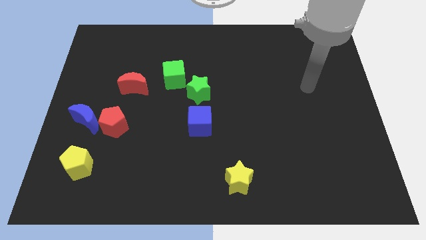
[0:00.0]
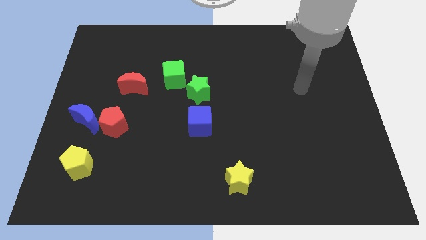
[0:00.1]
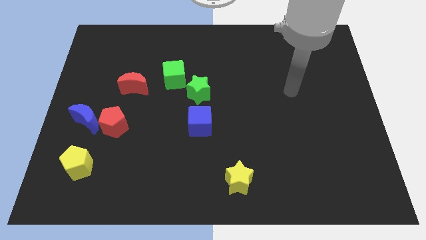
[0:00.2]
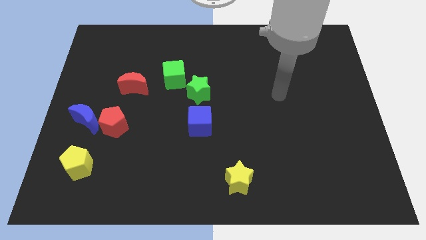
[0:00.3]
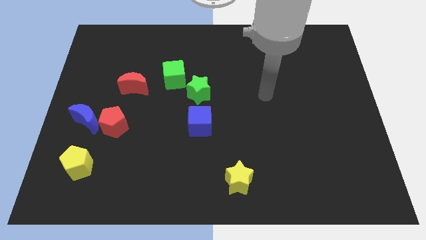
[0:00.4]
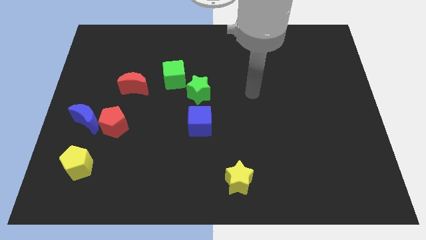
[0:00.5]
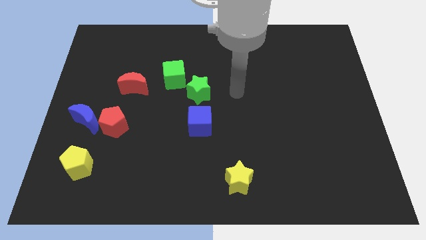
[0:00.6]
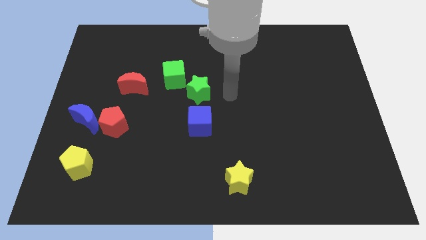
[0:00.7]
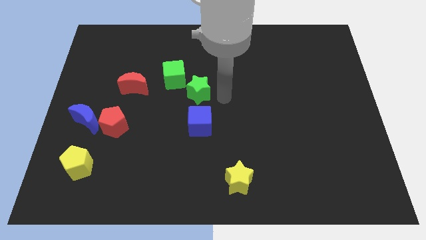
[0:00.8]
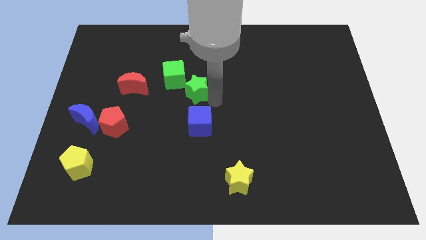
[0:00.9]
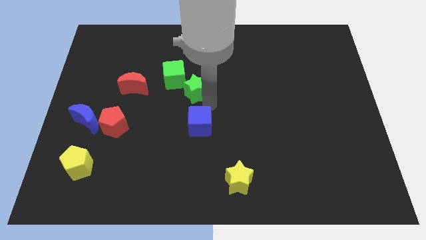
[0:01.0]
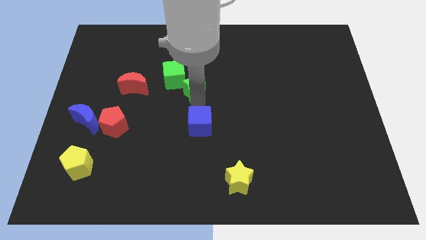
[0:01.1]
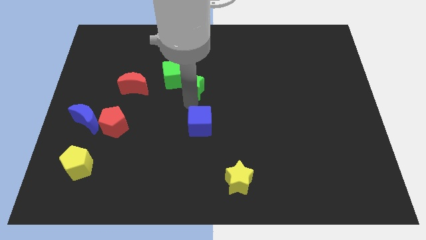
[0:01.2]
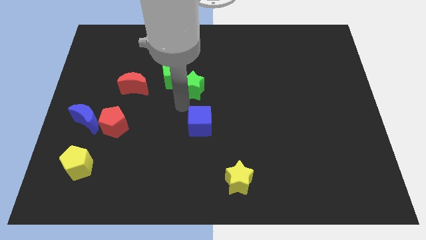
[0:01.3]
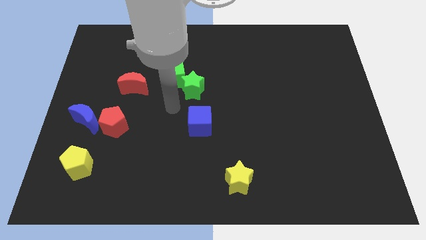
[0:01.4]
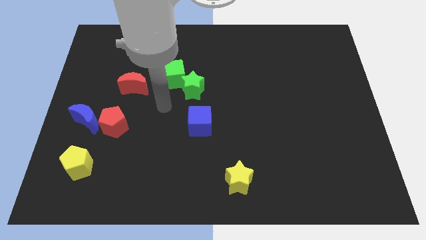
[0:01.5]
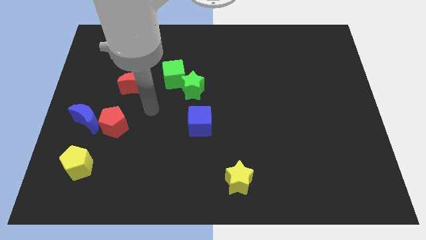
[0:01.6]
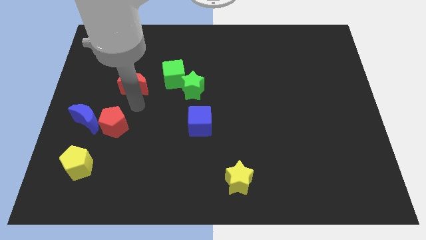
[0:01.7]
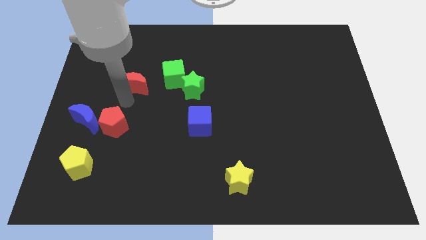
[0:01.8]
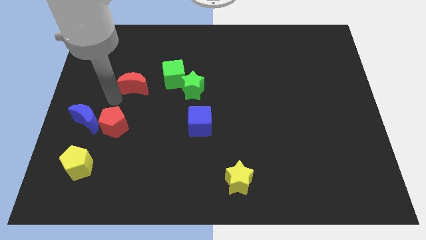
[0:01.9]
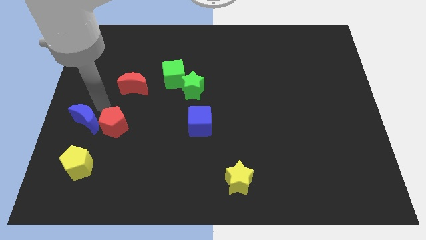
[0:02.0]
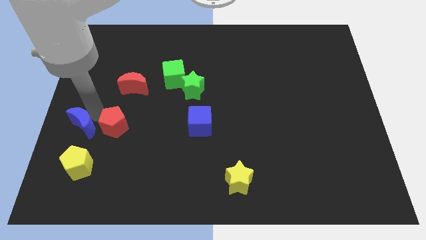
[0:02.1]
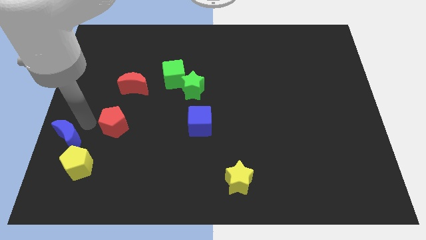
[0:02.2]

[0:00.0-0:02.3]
separate the red pentagon from the blue moon

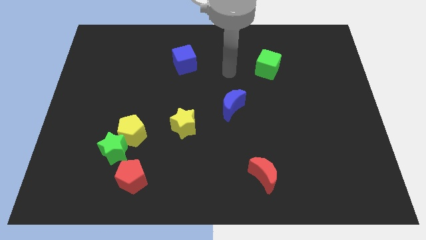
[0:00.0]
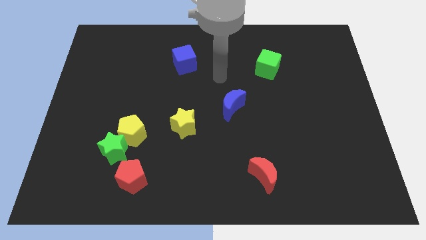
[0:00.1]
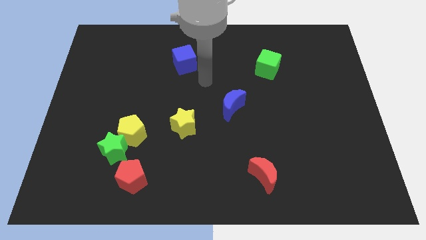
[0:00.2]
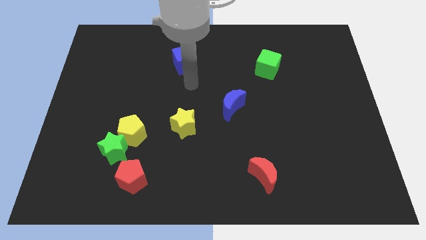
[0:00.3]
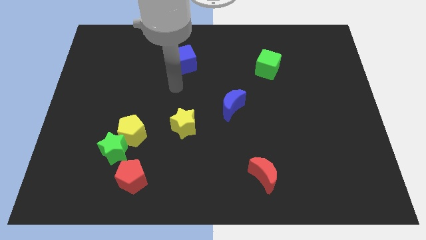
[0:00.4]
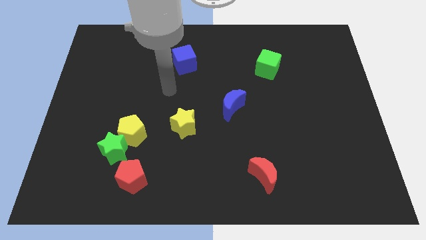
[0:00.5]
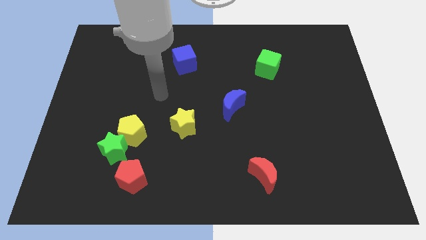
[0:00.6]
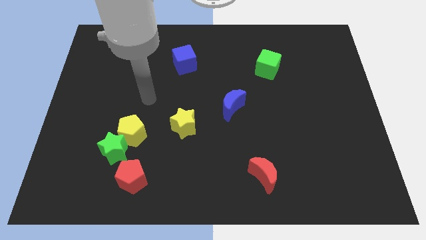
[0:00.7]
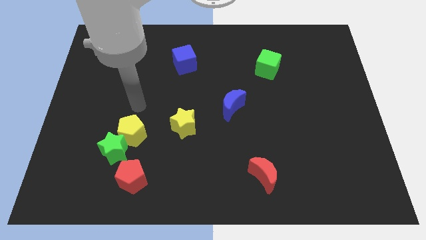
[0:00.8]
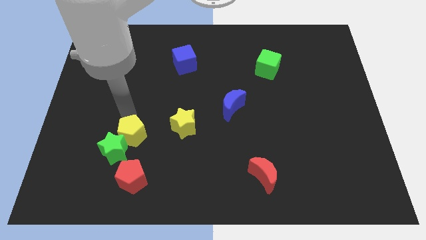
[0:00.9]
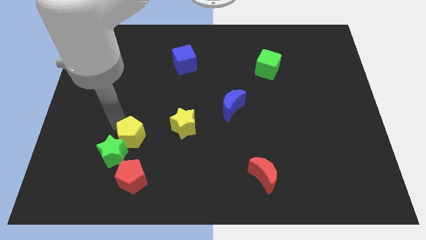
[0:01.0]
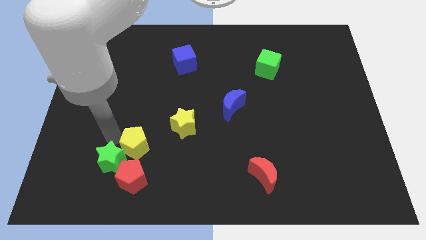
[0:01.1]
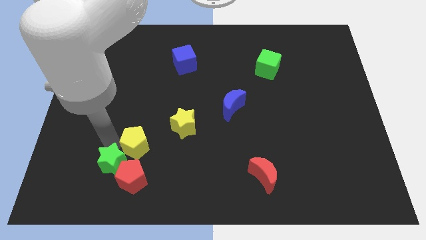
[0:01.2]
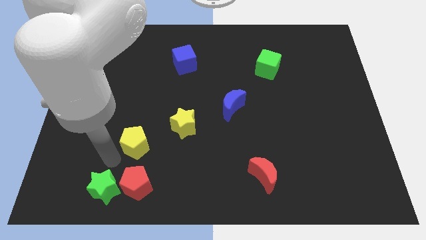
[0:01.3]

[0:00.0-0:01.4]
separate the yellow pentagon from the green star

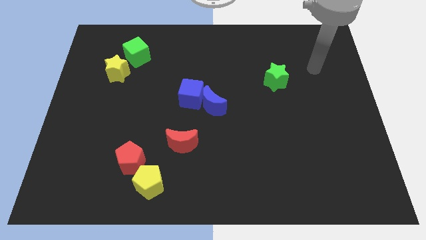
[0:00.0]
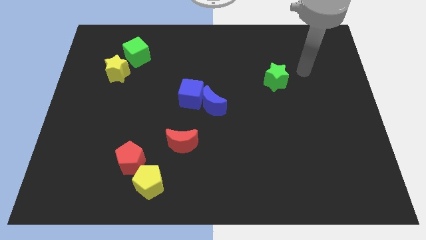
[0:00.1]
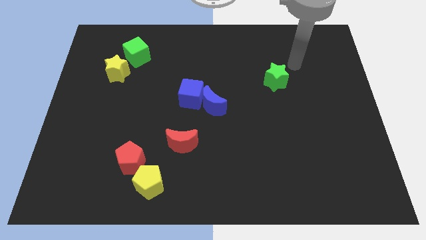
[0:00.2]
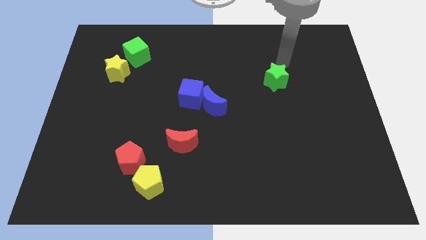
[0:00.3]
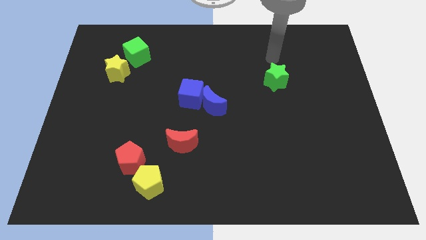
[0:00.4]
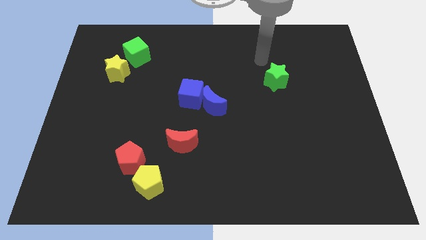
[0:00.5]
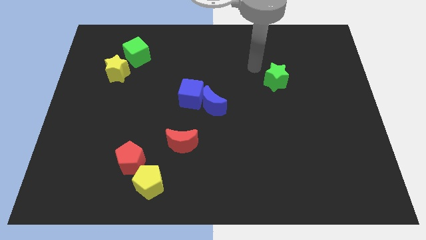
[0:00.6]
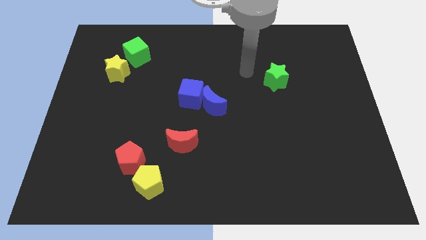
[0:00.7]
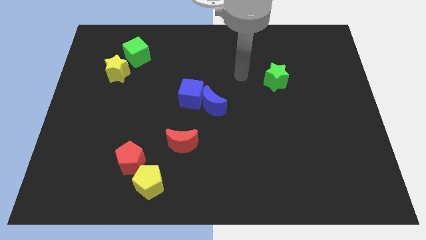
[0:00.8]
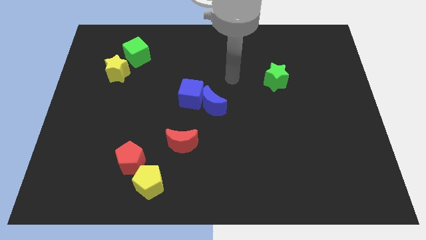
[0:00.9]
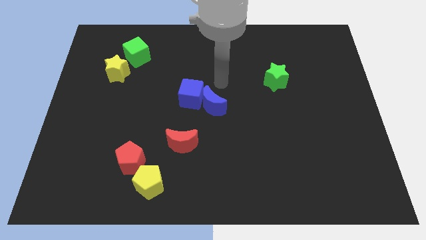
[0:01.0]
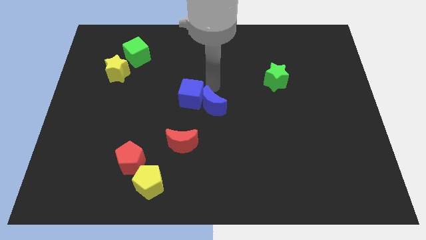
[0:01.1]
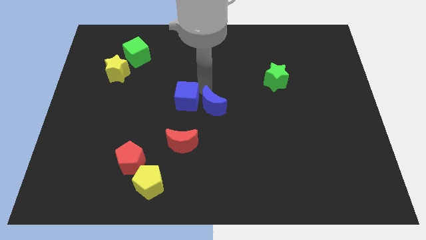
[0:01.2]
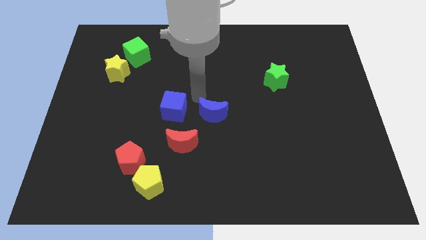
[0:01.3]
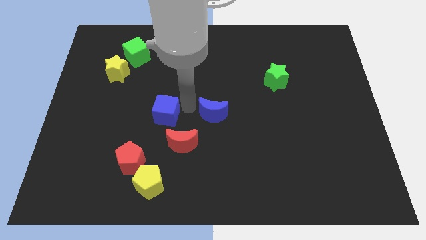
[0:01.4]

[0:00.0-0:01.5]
separate the blue moon from the blue cube

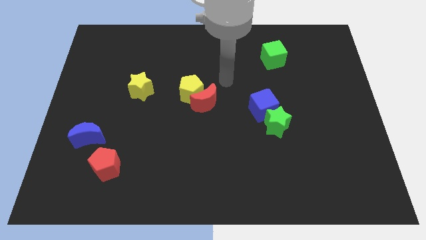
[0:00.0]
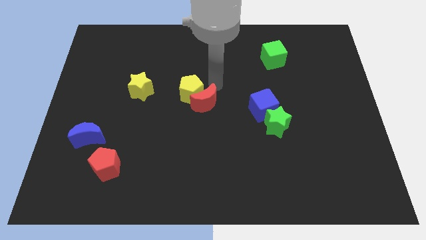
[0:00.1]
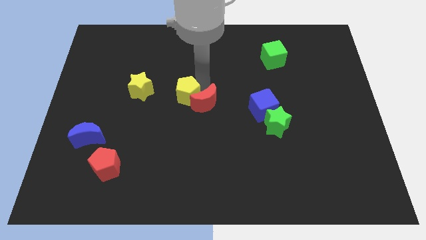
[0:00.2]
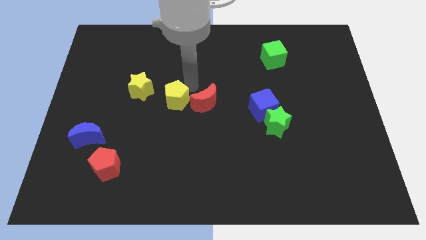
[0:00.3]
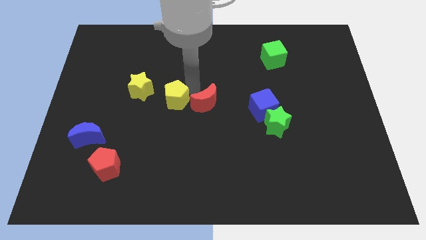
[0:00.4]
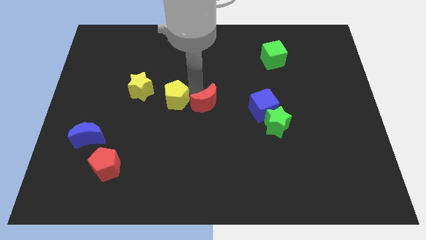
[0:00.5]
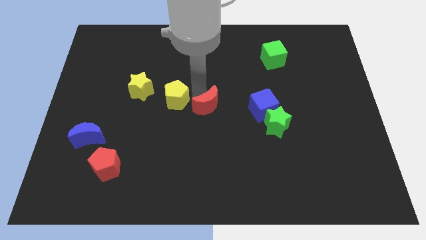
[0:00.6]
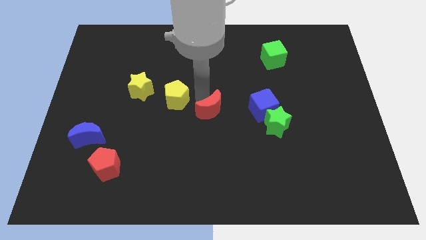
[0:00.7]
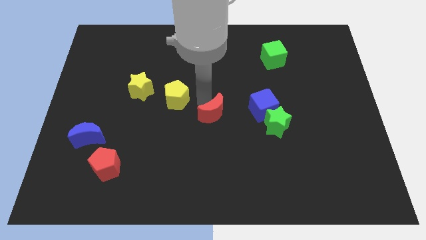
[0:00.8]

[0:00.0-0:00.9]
pull the red moon apart from the yellow pentagon

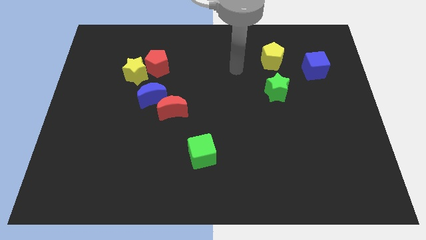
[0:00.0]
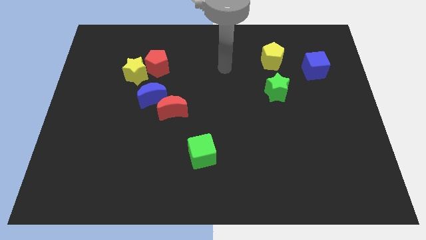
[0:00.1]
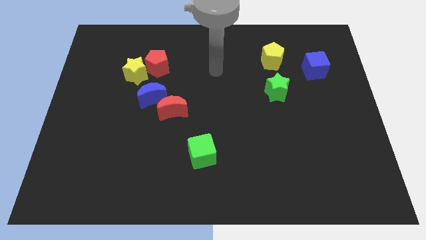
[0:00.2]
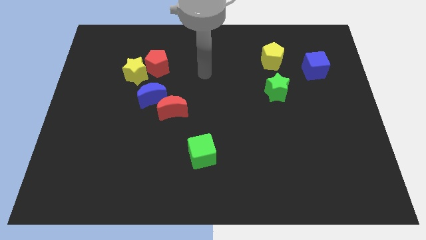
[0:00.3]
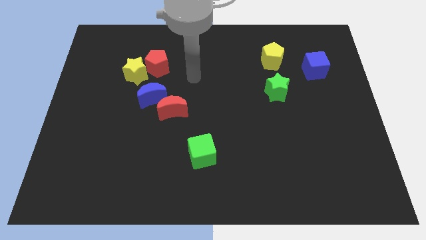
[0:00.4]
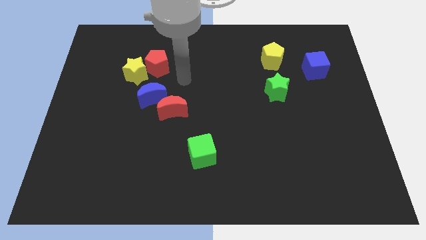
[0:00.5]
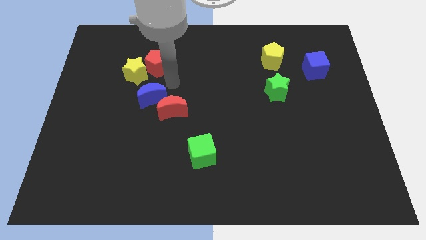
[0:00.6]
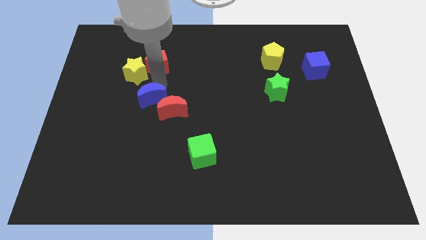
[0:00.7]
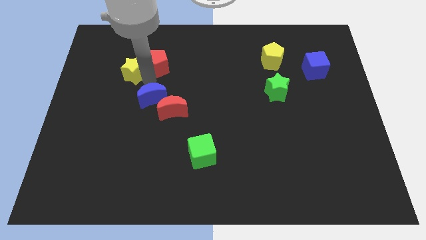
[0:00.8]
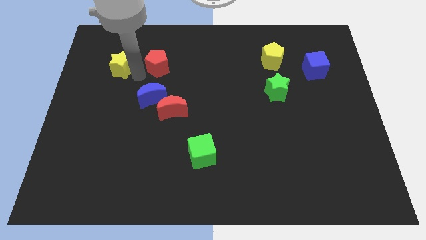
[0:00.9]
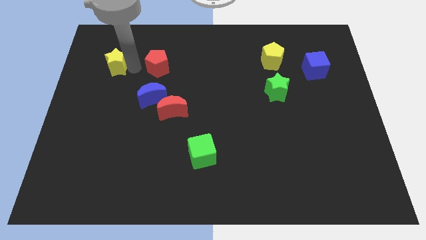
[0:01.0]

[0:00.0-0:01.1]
separate the red pentagon from the yellow star

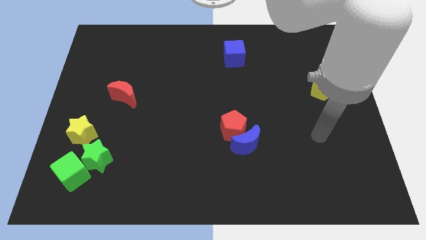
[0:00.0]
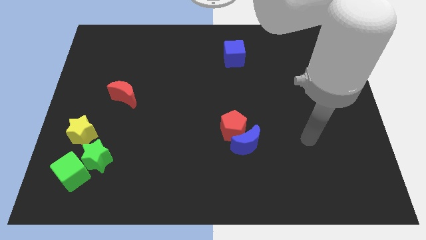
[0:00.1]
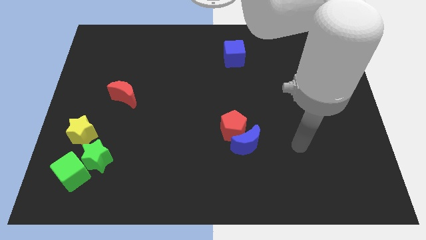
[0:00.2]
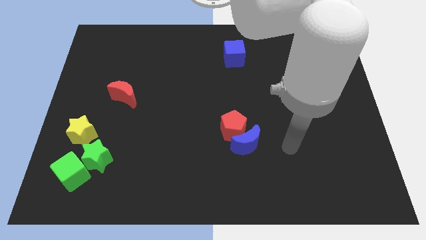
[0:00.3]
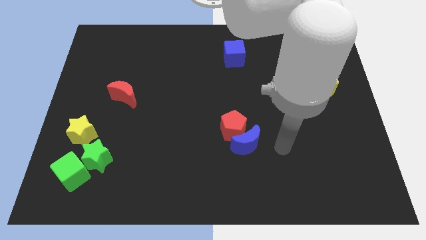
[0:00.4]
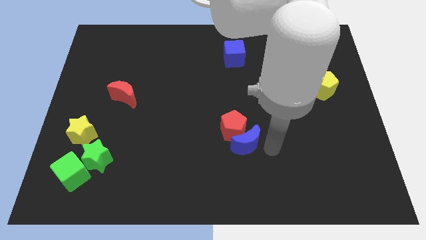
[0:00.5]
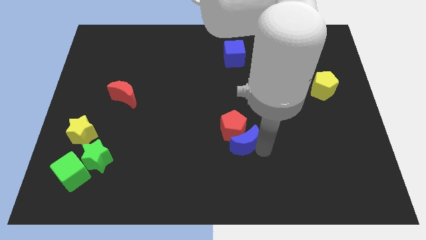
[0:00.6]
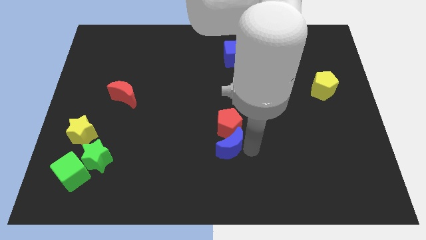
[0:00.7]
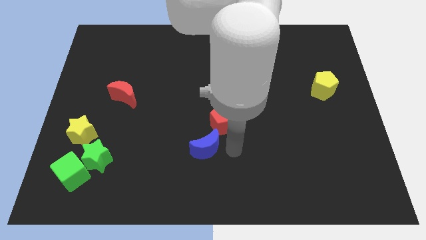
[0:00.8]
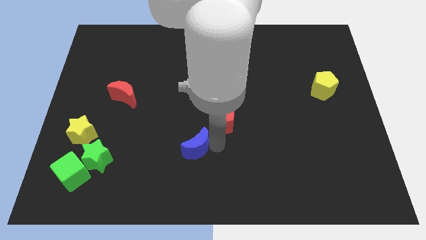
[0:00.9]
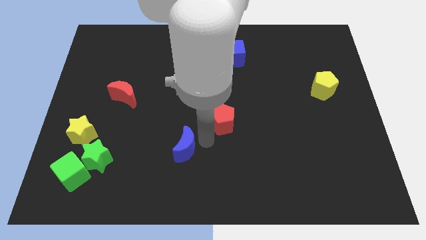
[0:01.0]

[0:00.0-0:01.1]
move the red pentagon away from the blue moon

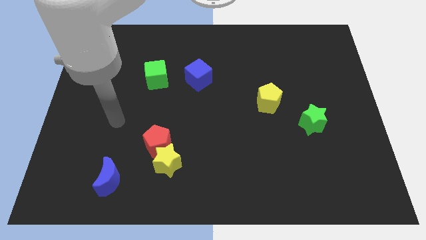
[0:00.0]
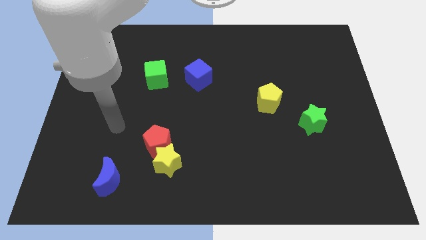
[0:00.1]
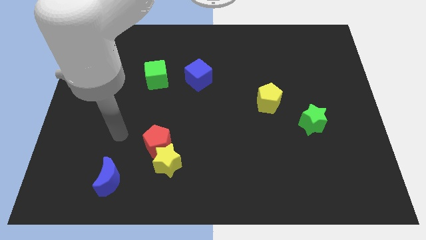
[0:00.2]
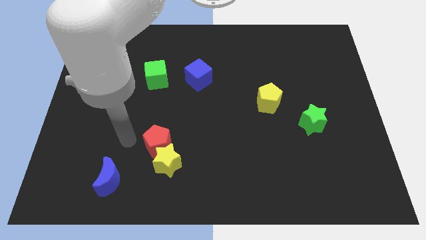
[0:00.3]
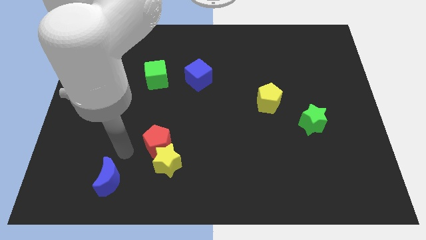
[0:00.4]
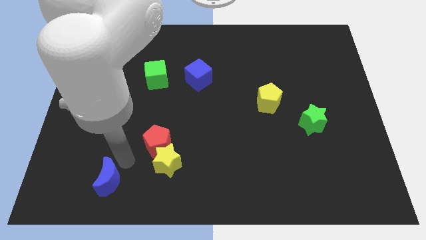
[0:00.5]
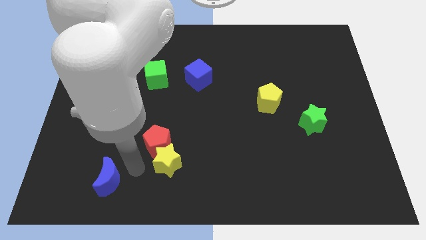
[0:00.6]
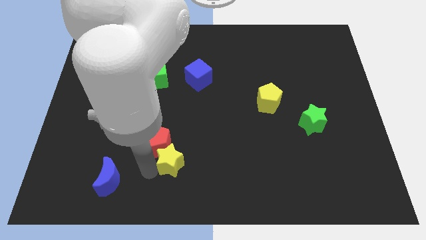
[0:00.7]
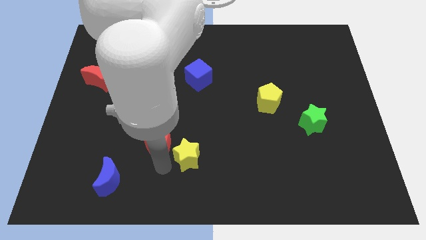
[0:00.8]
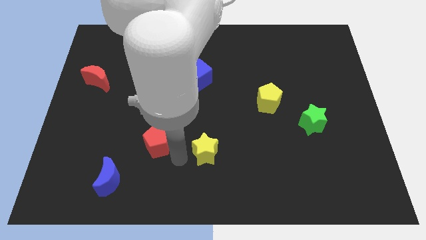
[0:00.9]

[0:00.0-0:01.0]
pull the red pentagon apart from the yellow star
